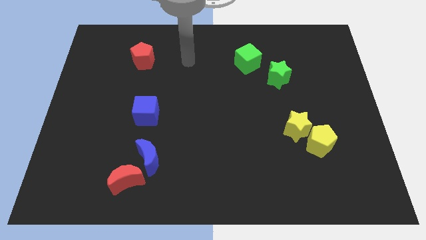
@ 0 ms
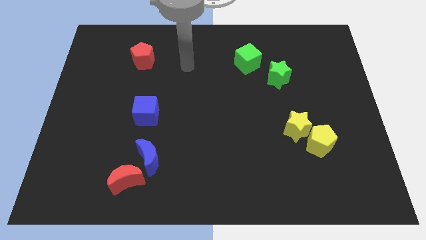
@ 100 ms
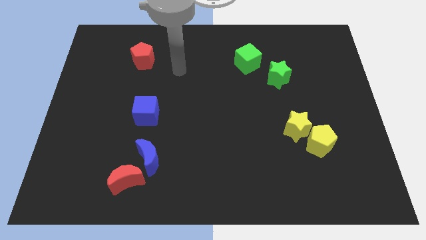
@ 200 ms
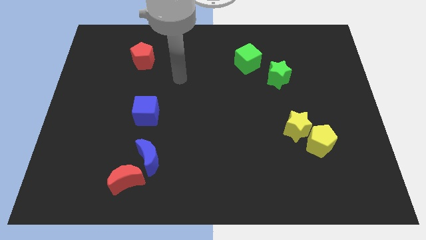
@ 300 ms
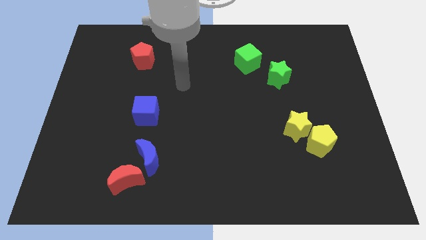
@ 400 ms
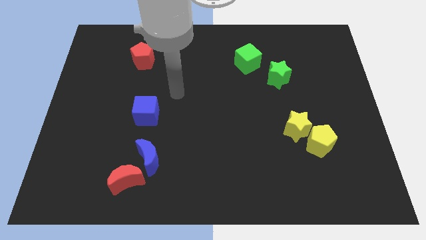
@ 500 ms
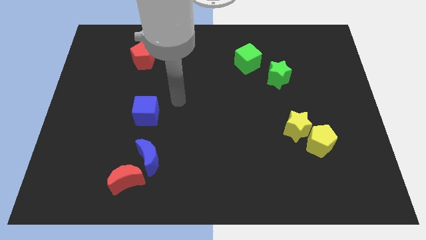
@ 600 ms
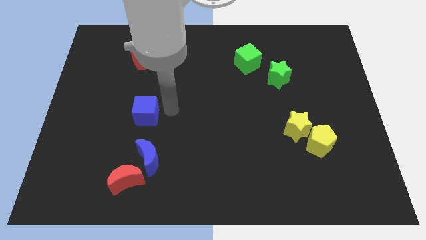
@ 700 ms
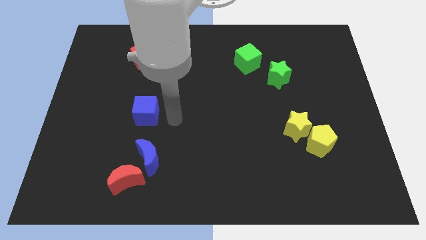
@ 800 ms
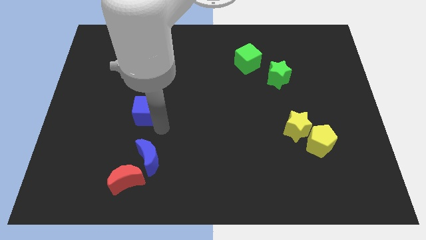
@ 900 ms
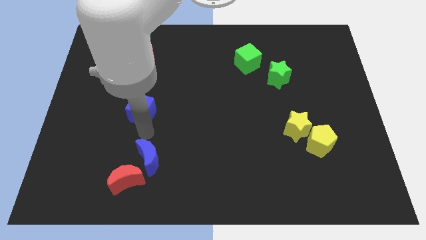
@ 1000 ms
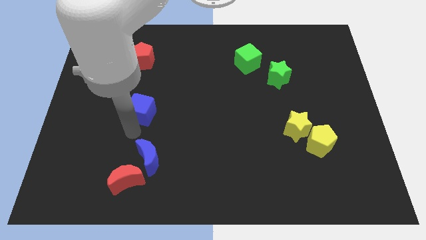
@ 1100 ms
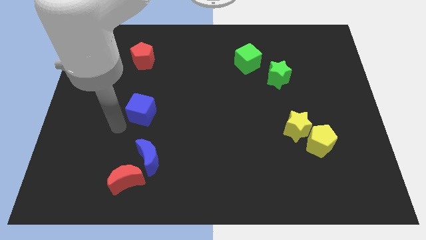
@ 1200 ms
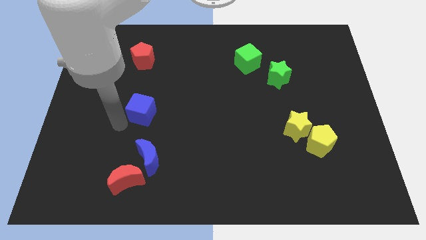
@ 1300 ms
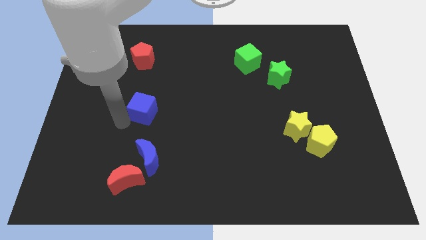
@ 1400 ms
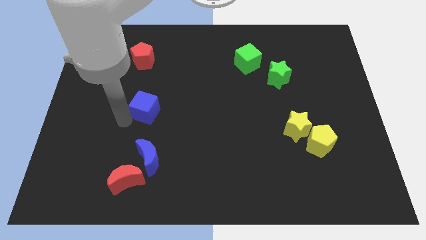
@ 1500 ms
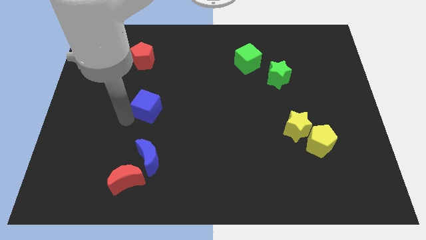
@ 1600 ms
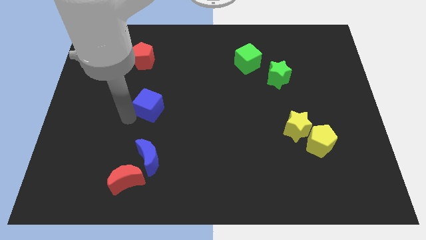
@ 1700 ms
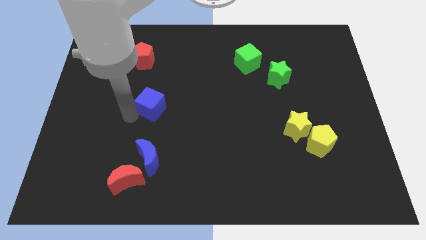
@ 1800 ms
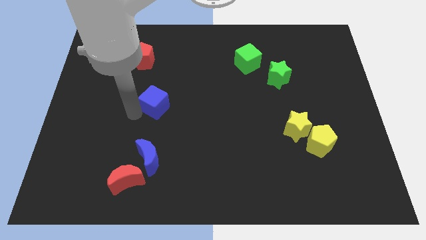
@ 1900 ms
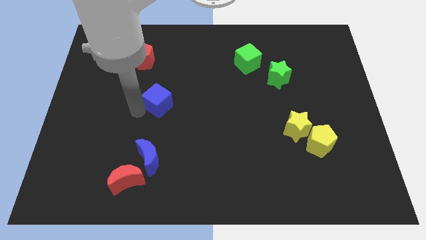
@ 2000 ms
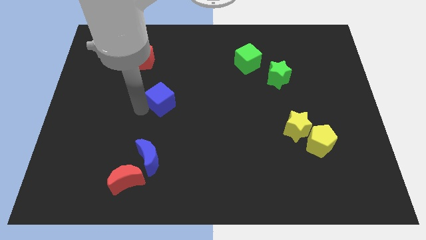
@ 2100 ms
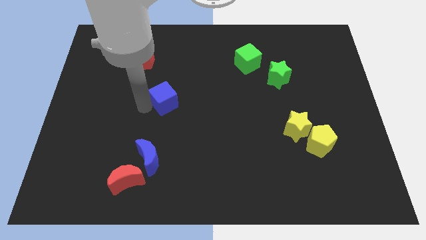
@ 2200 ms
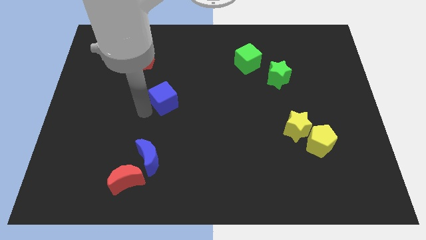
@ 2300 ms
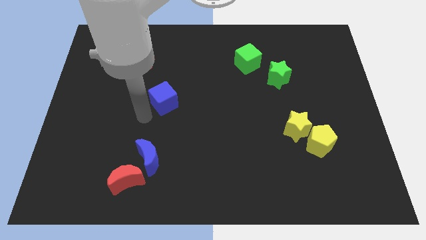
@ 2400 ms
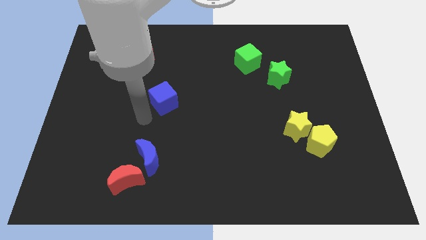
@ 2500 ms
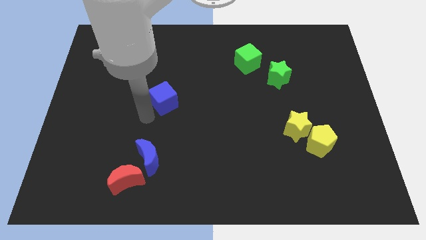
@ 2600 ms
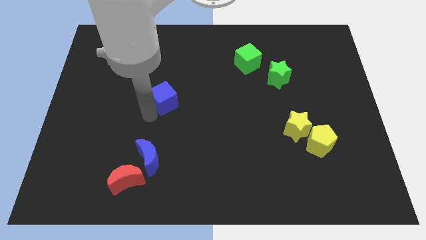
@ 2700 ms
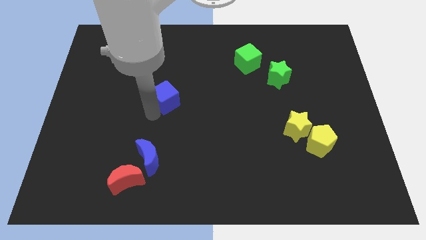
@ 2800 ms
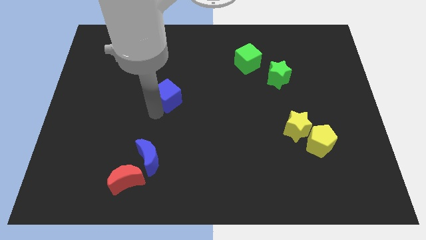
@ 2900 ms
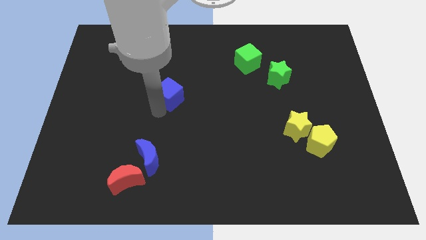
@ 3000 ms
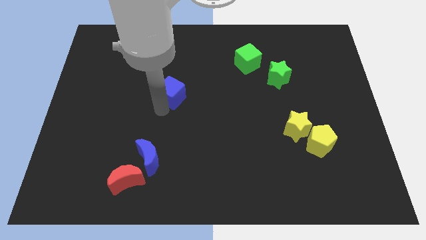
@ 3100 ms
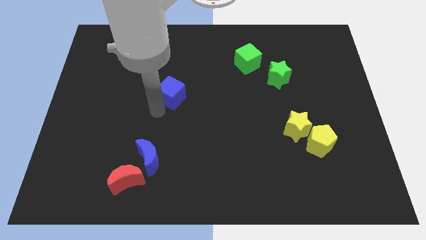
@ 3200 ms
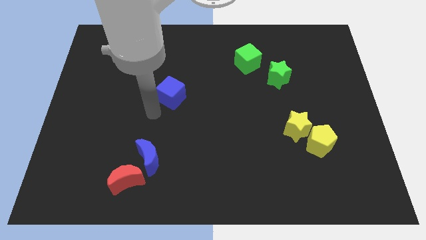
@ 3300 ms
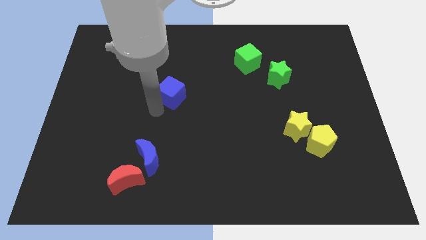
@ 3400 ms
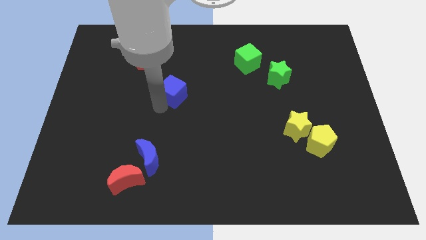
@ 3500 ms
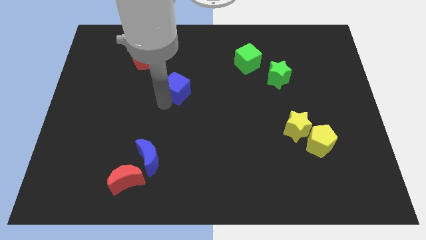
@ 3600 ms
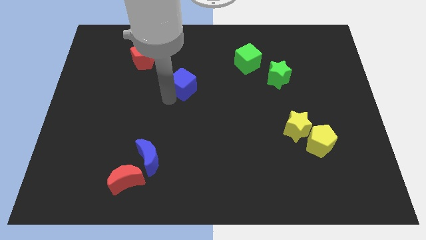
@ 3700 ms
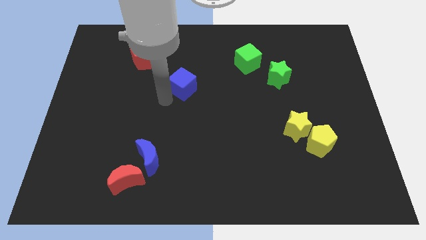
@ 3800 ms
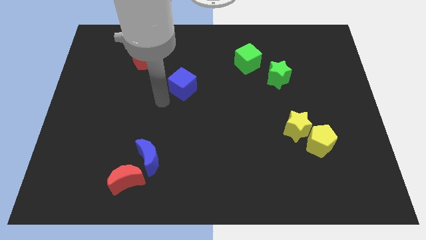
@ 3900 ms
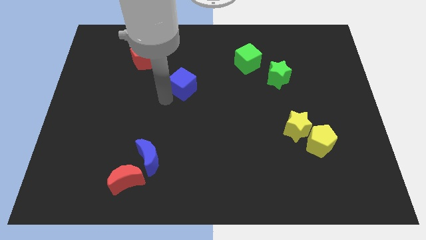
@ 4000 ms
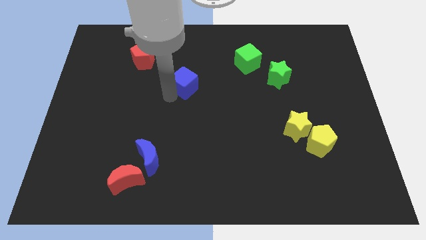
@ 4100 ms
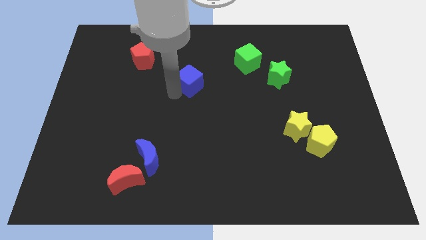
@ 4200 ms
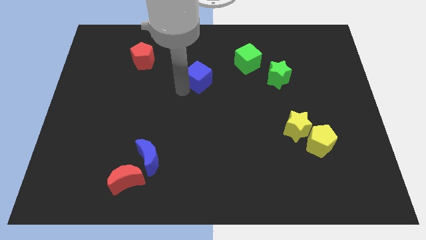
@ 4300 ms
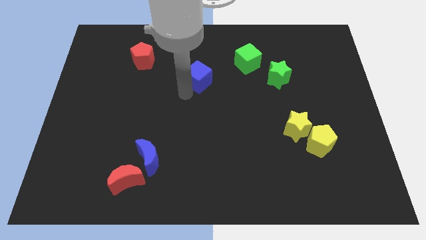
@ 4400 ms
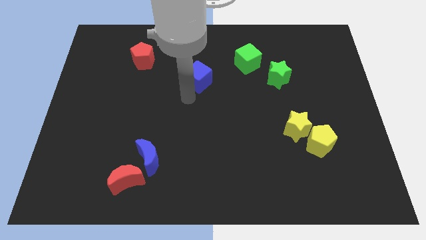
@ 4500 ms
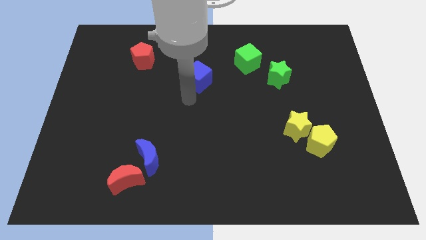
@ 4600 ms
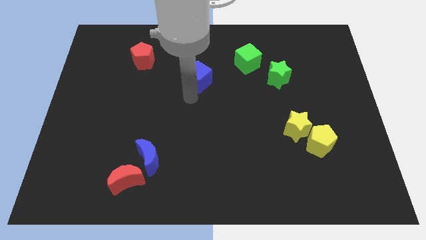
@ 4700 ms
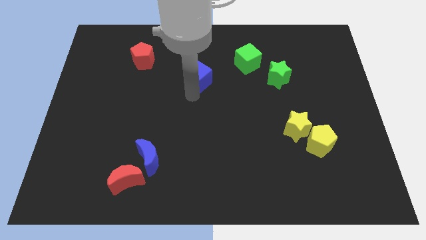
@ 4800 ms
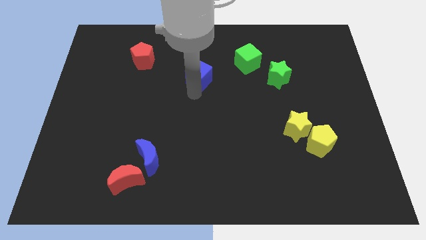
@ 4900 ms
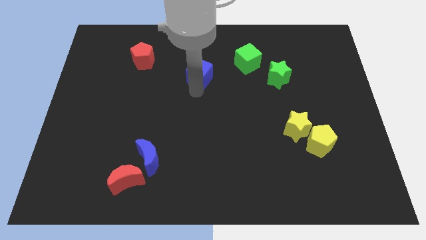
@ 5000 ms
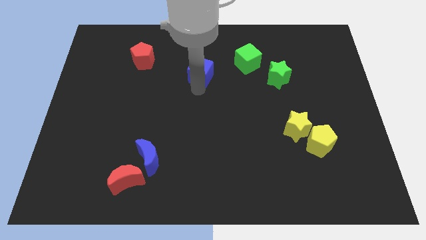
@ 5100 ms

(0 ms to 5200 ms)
put the blue cube left of the green cube

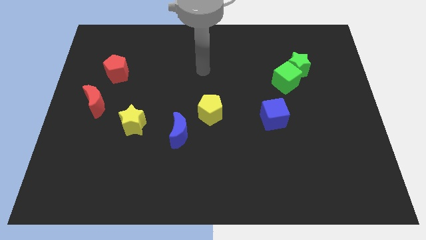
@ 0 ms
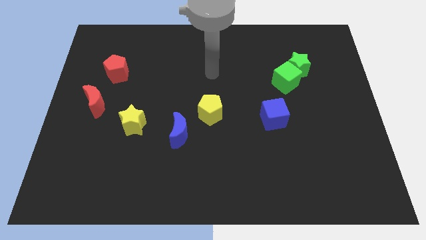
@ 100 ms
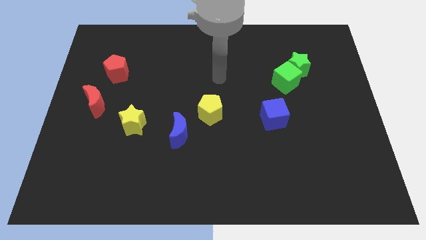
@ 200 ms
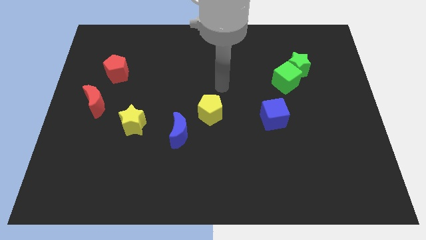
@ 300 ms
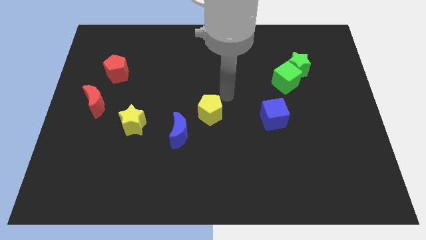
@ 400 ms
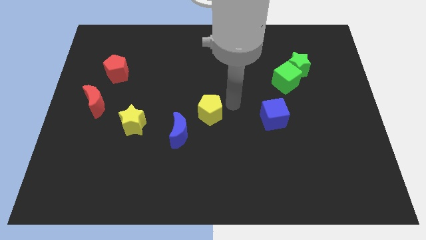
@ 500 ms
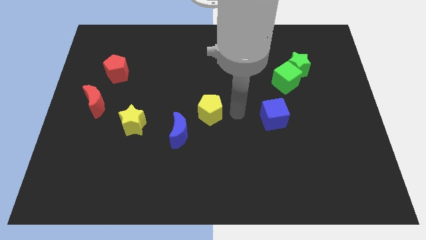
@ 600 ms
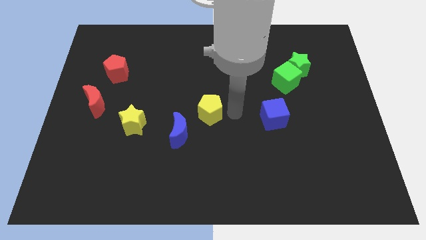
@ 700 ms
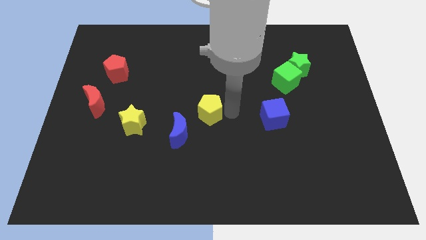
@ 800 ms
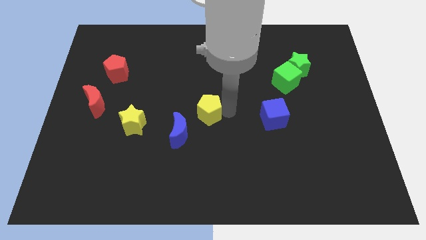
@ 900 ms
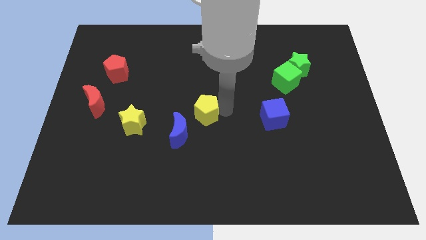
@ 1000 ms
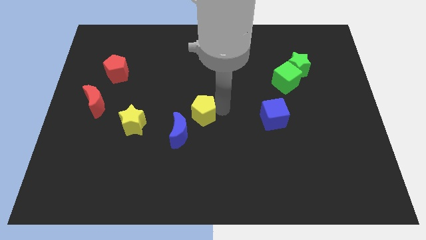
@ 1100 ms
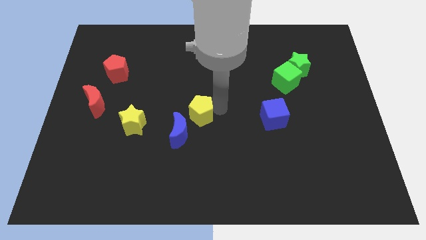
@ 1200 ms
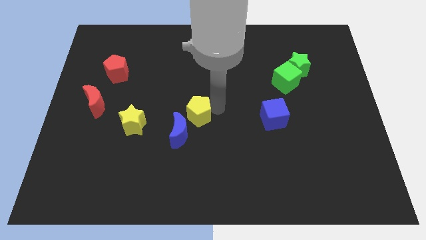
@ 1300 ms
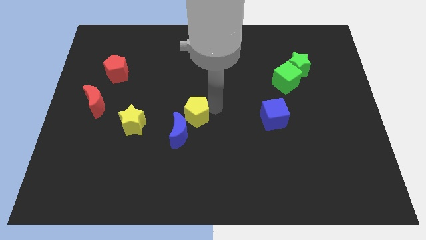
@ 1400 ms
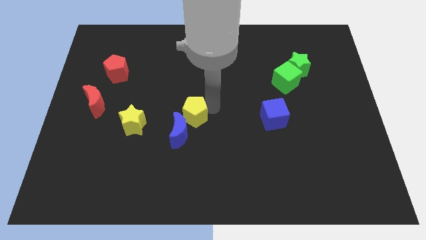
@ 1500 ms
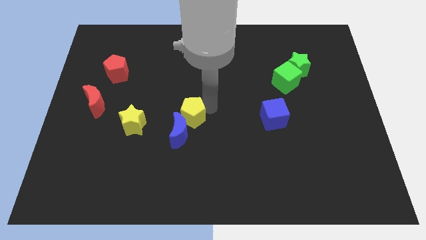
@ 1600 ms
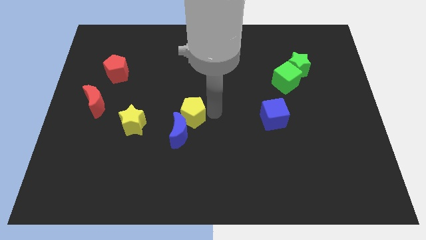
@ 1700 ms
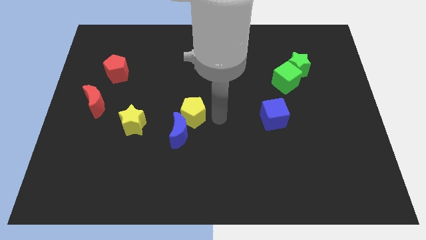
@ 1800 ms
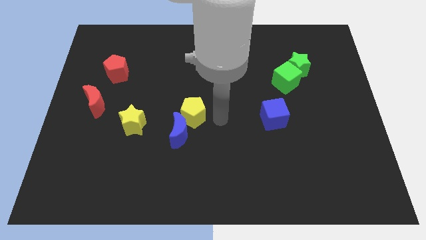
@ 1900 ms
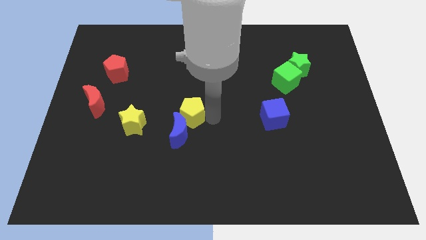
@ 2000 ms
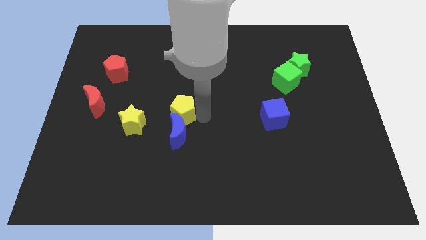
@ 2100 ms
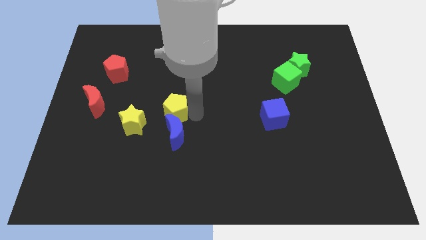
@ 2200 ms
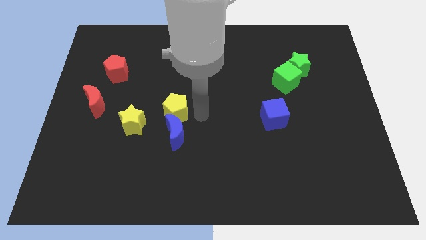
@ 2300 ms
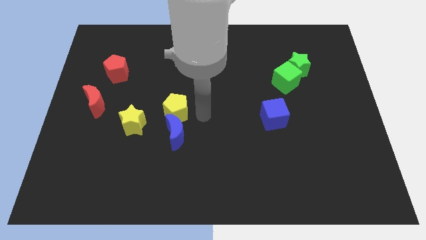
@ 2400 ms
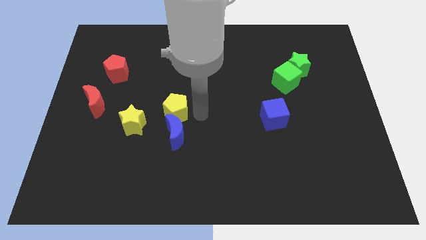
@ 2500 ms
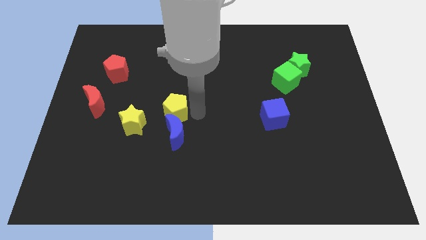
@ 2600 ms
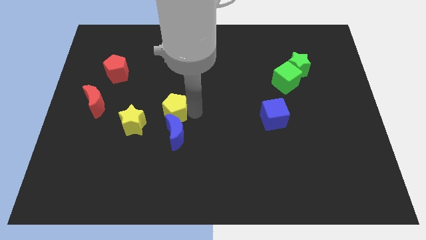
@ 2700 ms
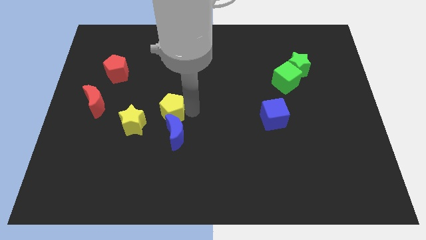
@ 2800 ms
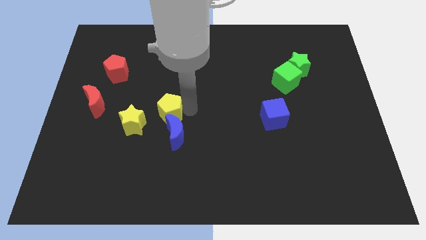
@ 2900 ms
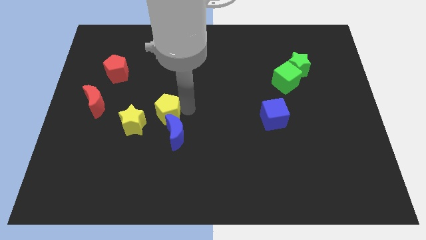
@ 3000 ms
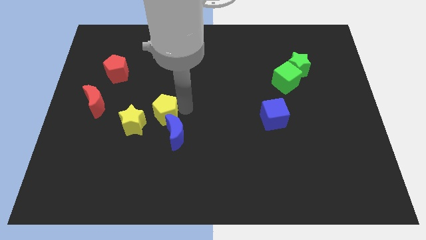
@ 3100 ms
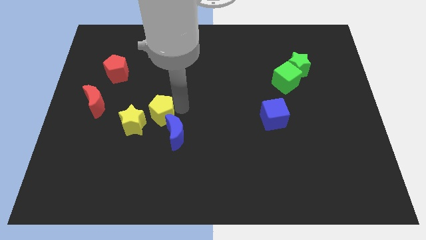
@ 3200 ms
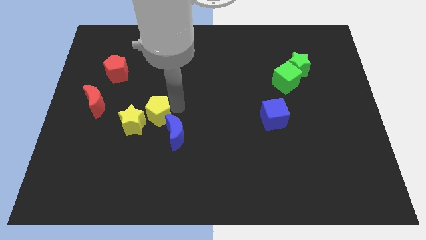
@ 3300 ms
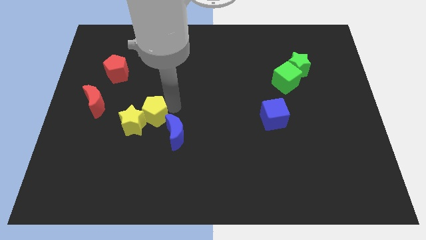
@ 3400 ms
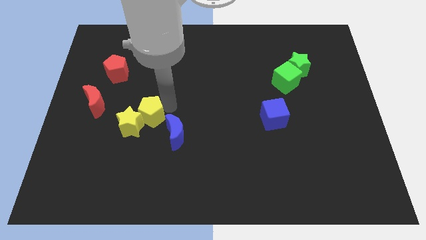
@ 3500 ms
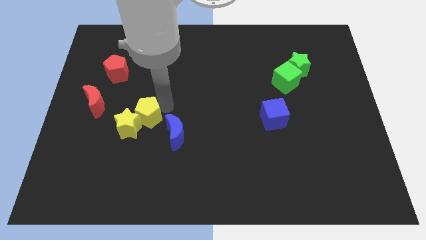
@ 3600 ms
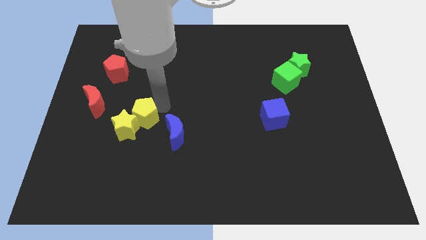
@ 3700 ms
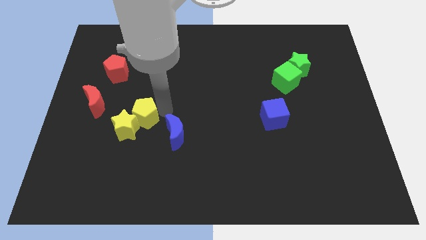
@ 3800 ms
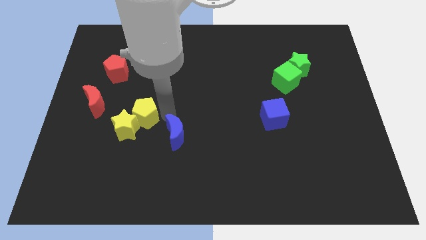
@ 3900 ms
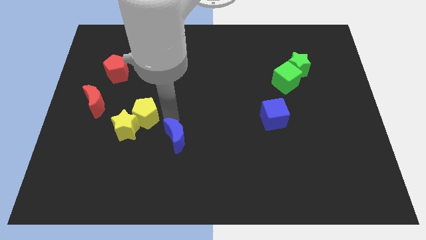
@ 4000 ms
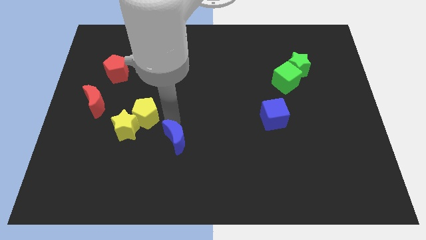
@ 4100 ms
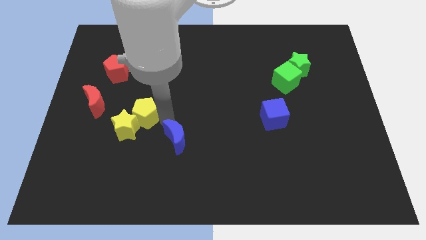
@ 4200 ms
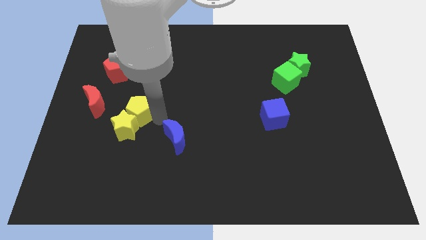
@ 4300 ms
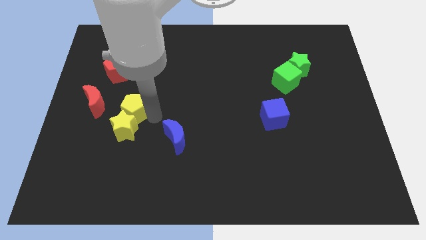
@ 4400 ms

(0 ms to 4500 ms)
push the yellow pentagon to the bottom right side of the red moon
